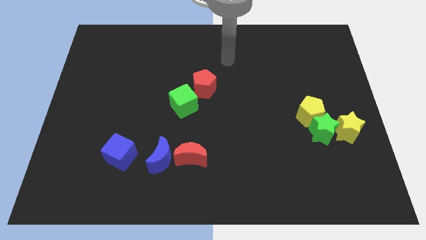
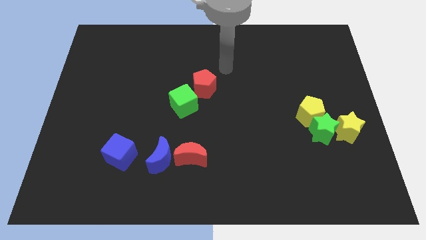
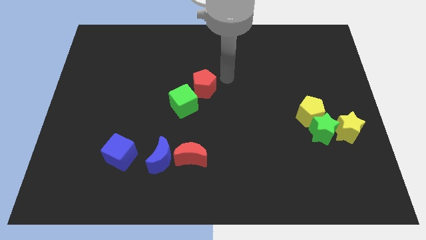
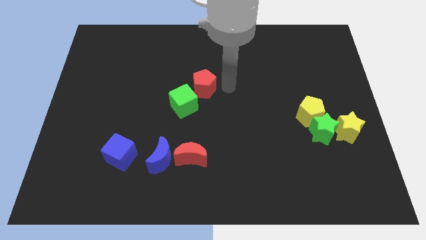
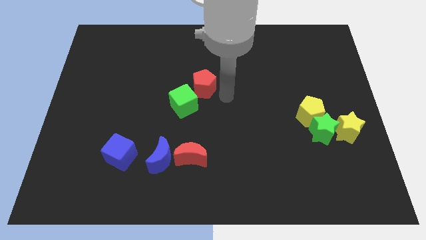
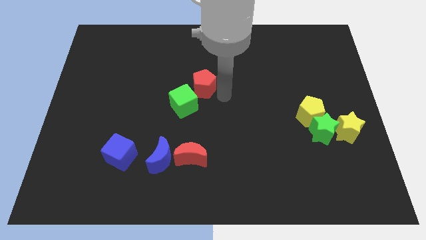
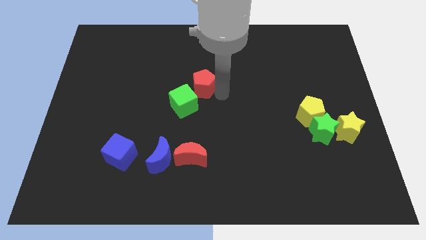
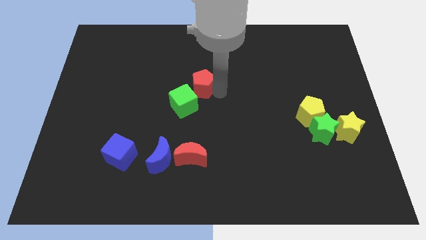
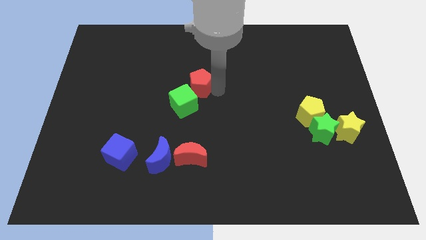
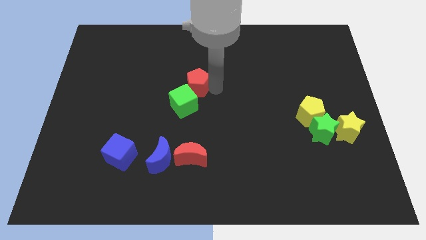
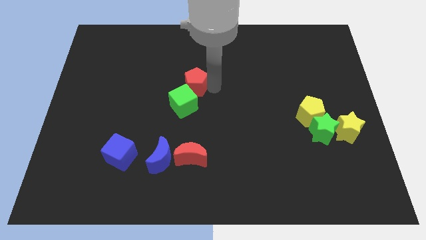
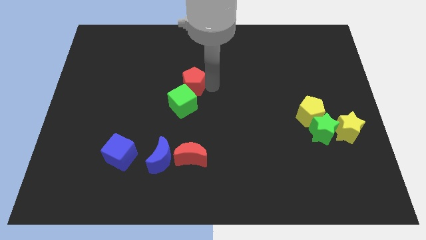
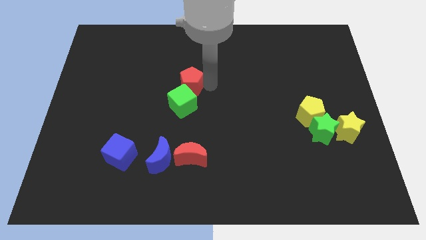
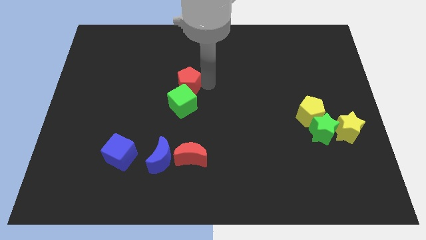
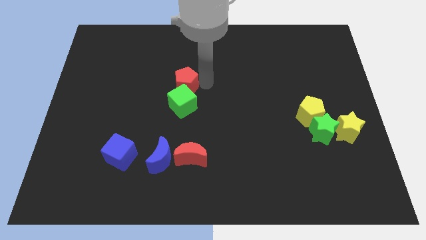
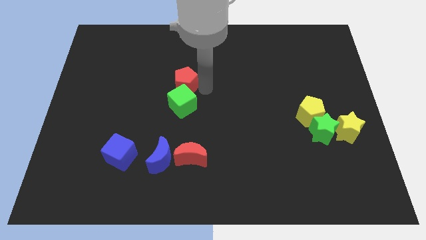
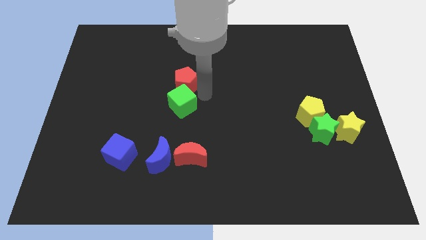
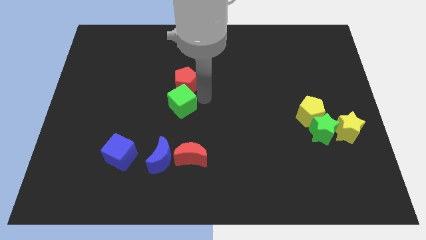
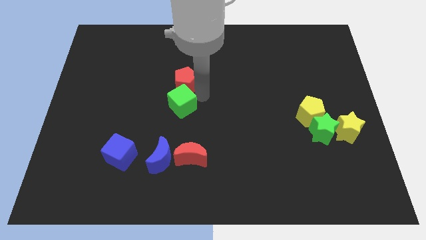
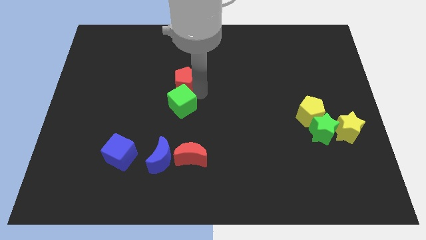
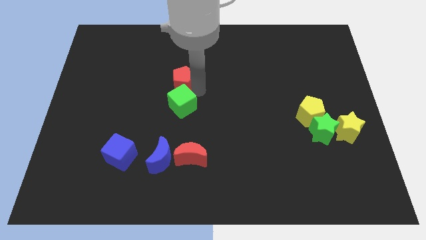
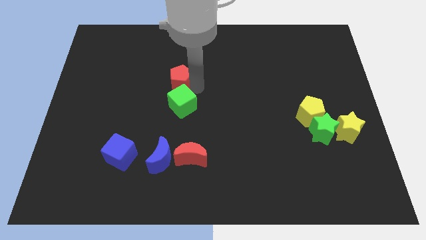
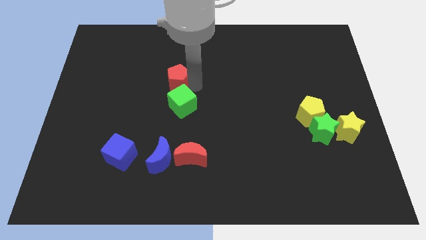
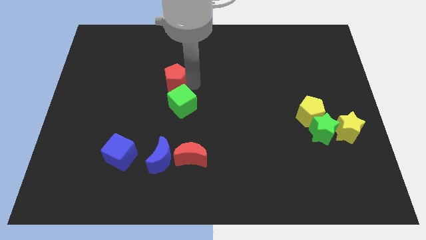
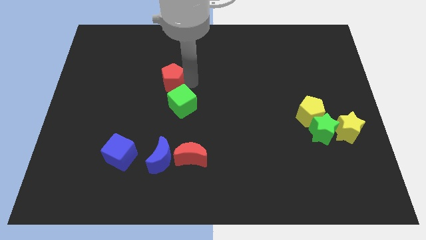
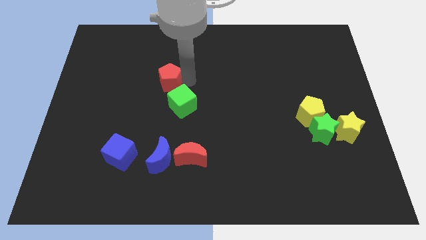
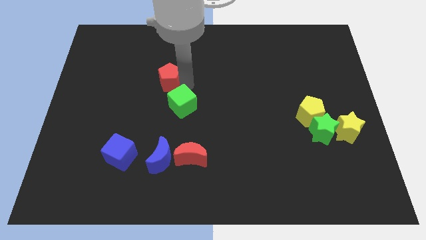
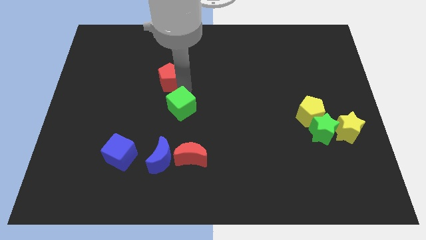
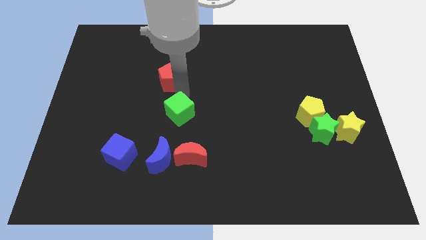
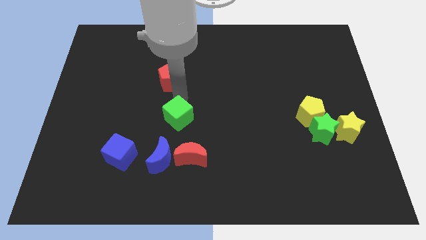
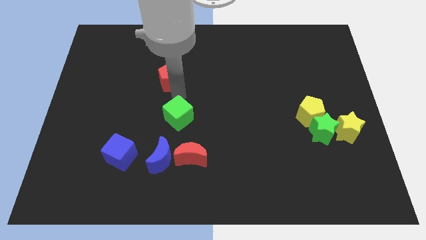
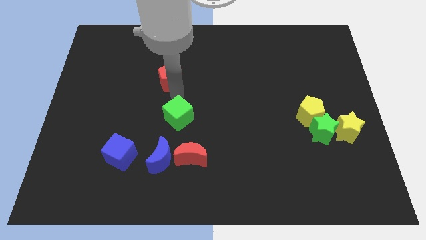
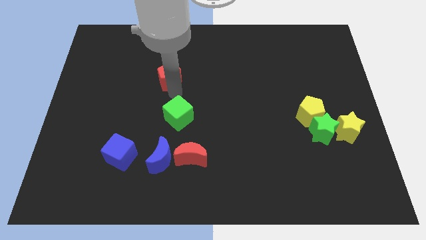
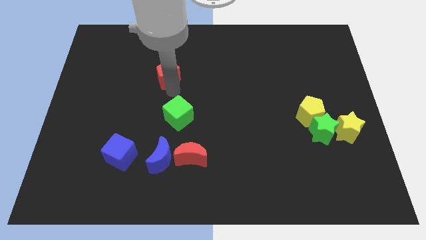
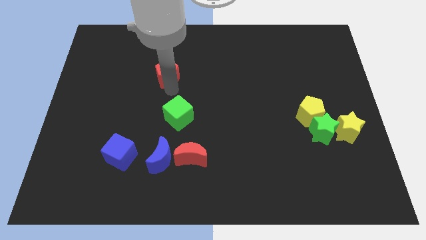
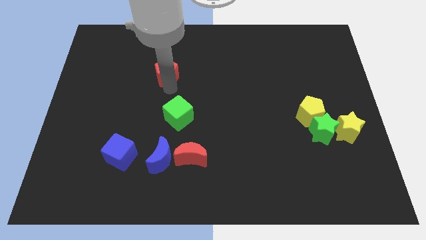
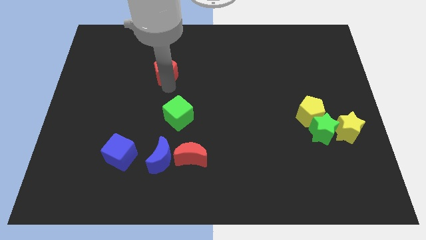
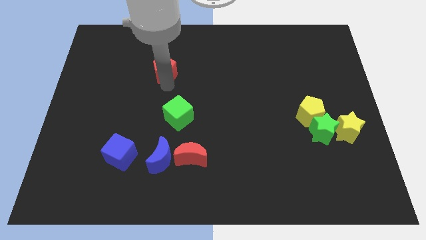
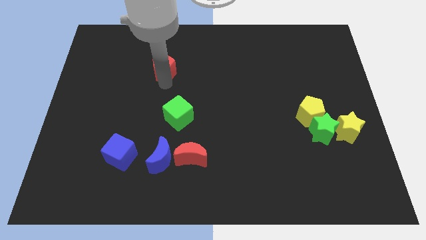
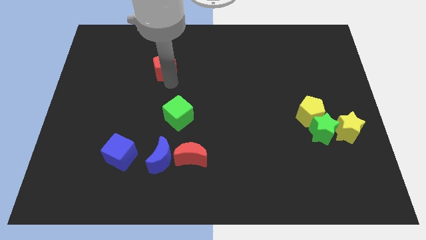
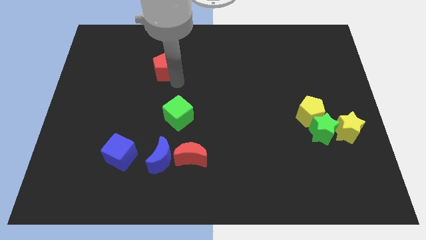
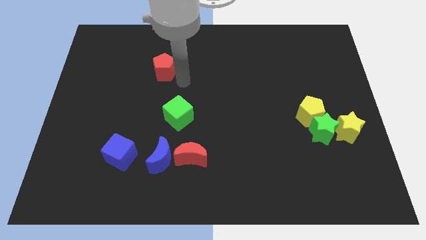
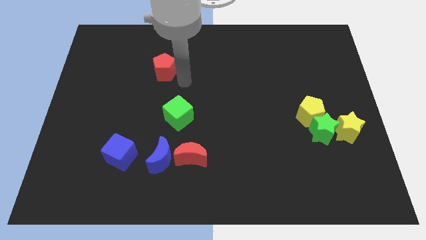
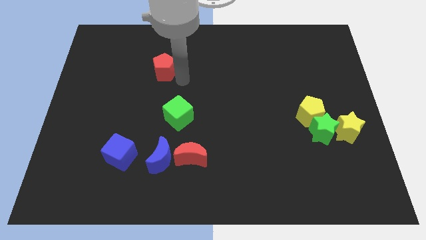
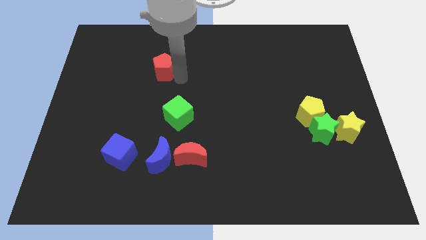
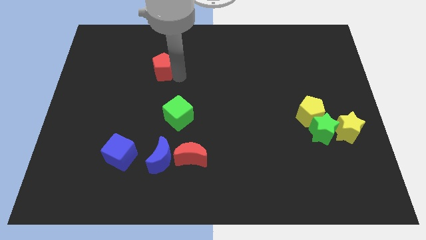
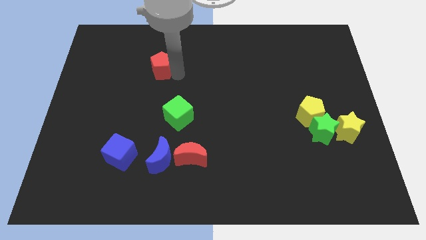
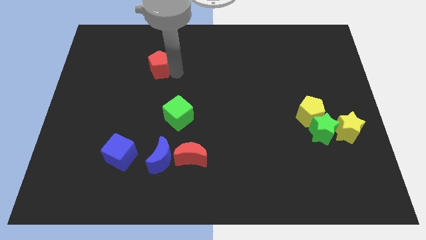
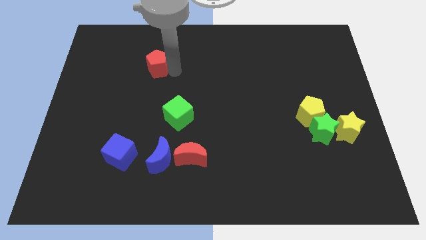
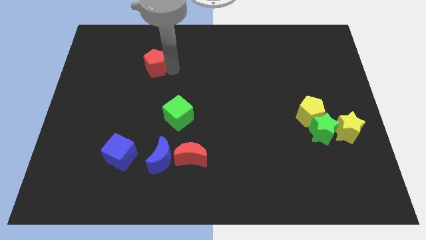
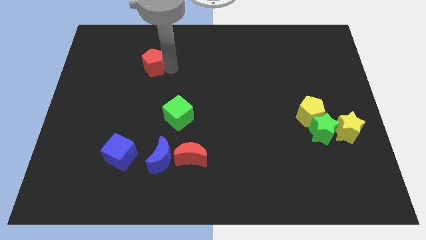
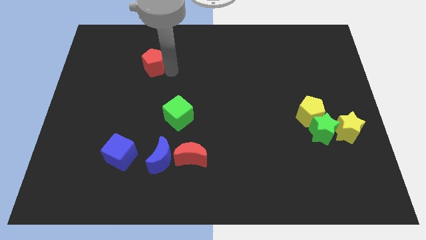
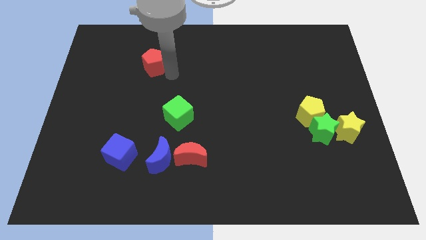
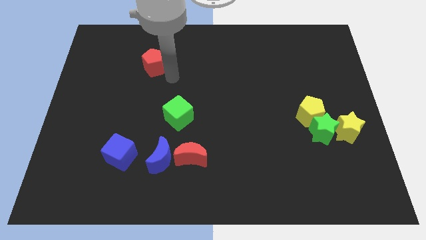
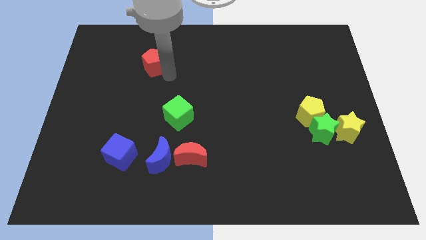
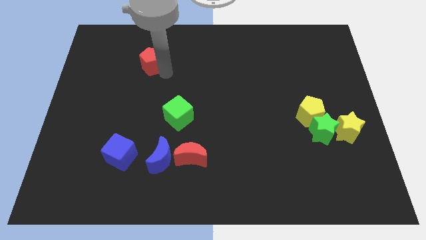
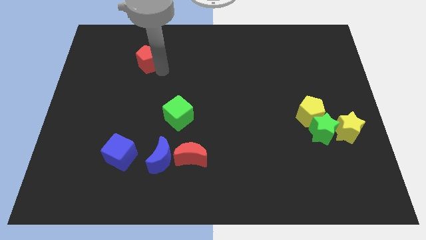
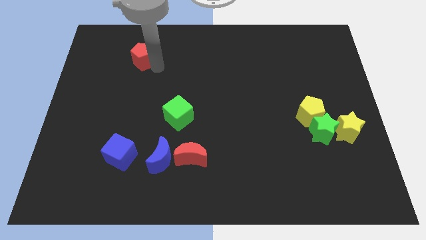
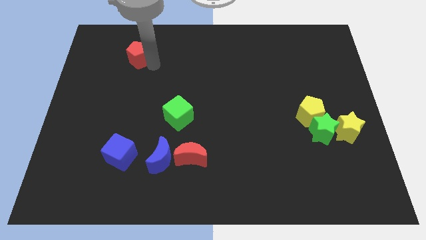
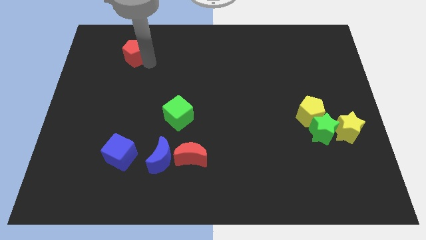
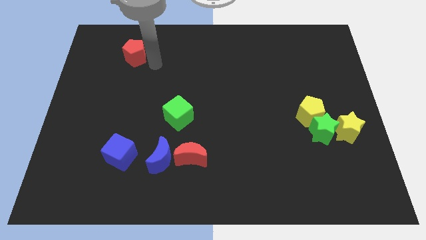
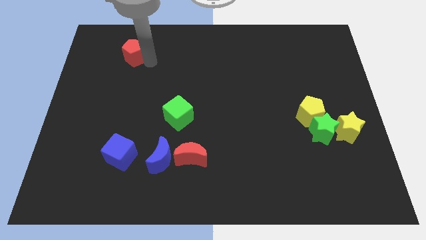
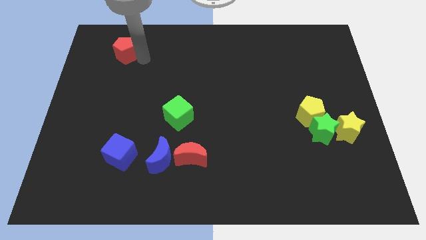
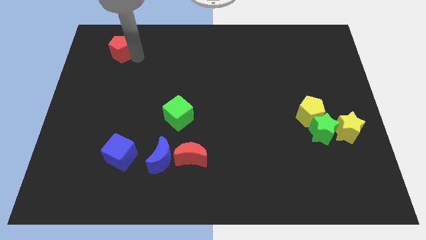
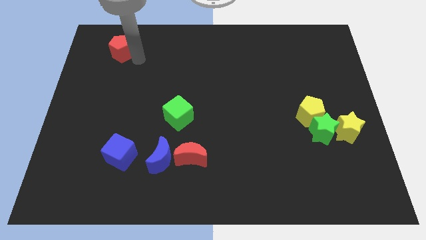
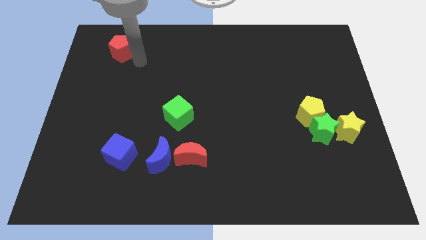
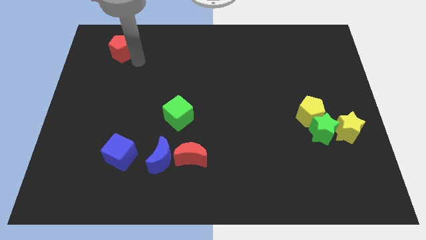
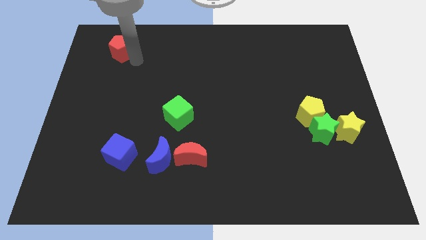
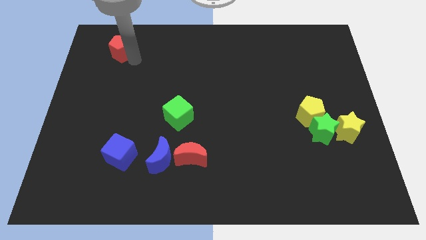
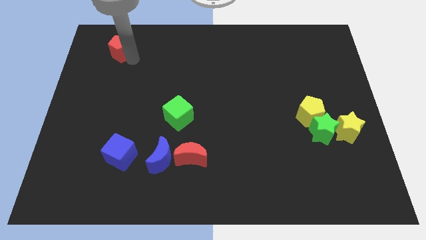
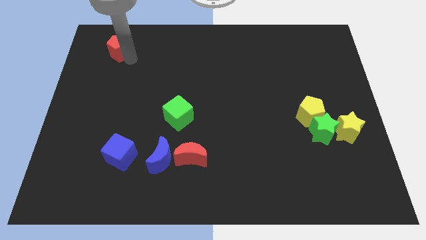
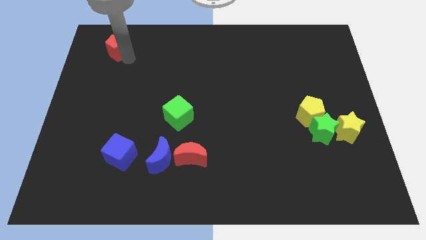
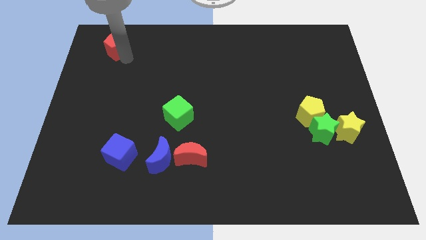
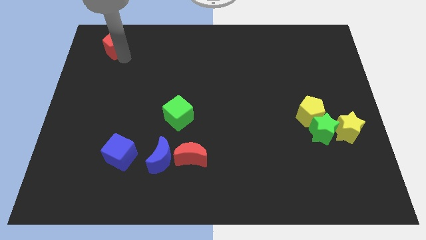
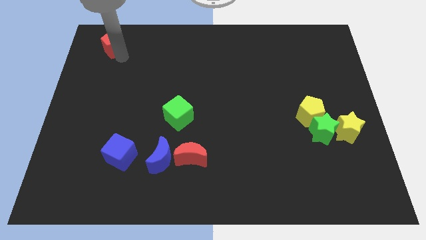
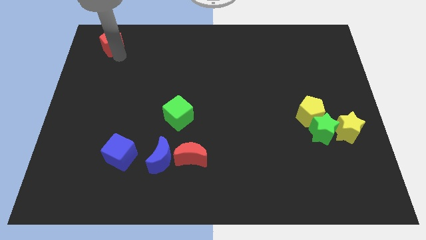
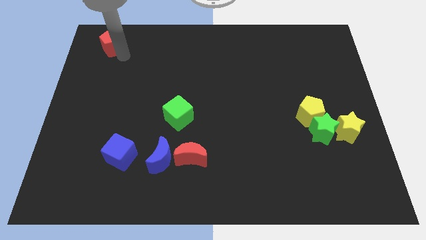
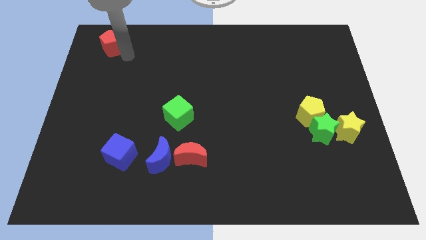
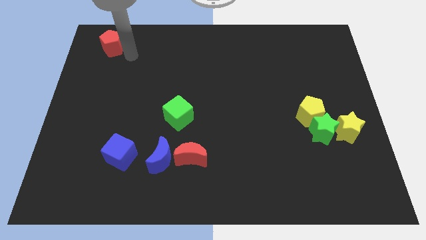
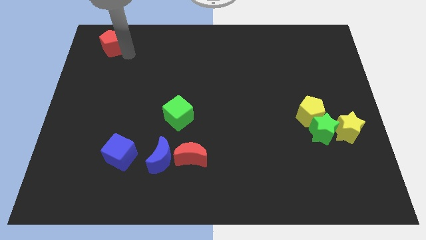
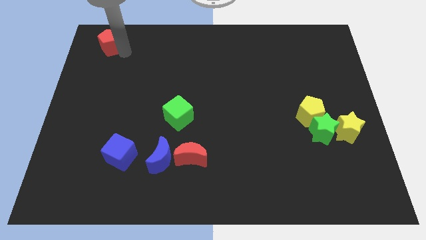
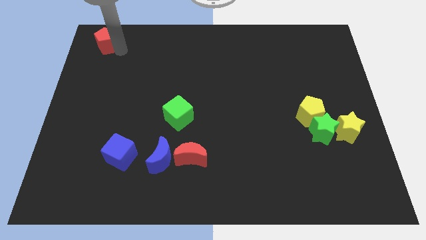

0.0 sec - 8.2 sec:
slide the red pentagon to the top left
